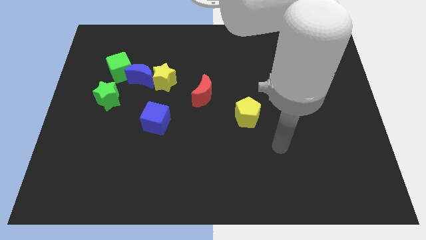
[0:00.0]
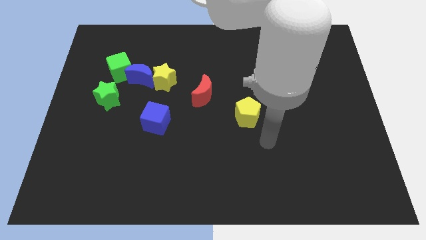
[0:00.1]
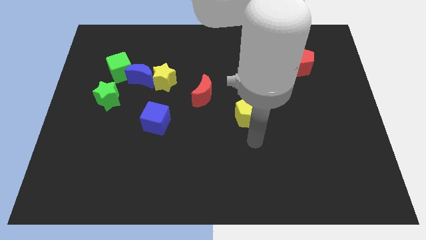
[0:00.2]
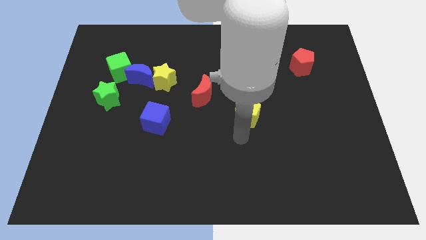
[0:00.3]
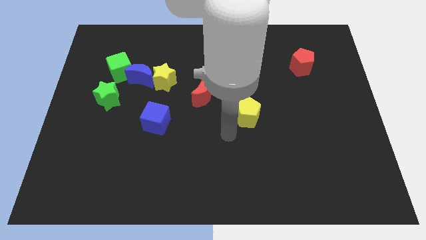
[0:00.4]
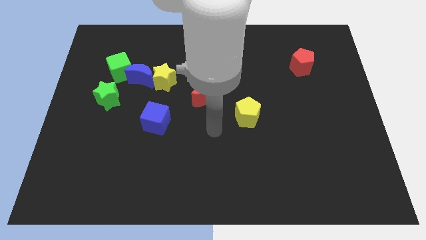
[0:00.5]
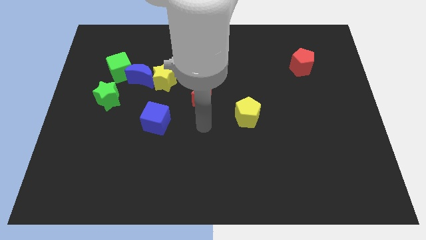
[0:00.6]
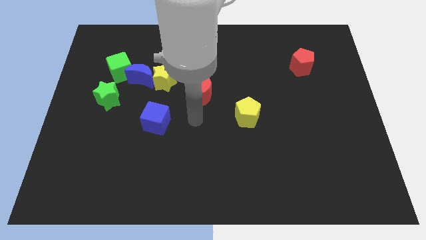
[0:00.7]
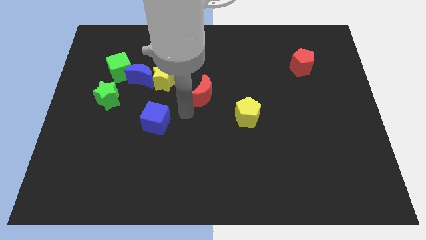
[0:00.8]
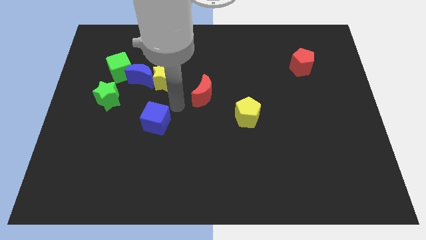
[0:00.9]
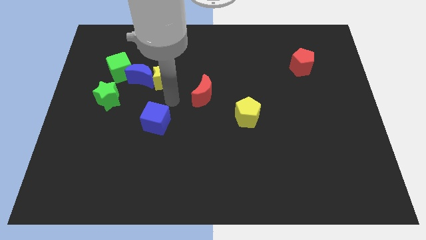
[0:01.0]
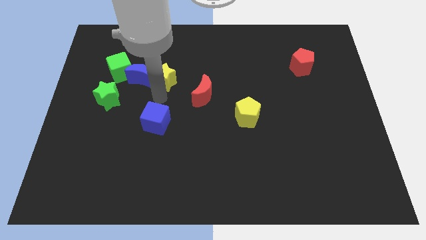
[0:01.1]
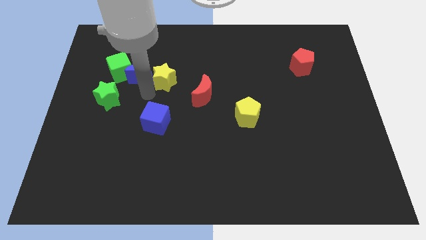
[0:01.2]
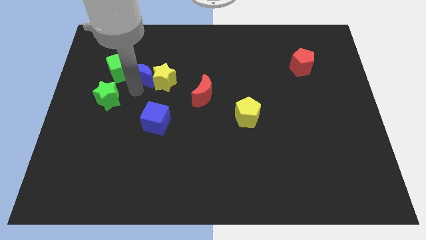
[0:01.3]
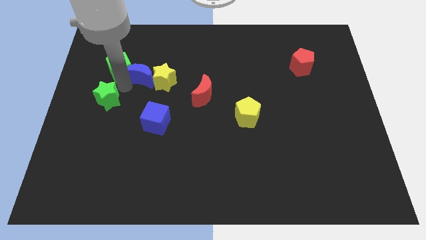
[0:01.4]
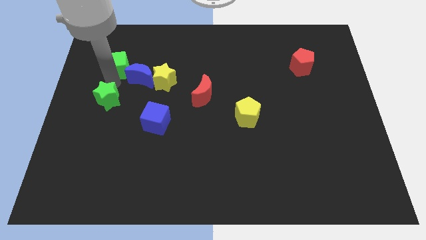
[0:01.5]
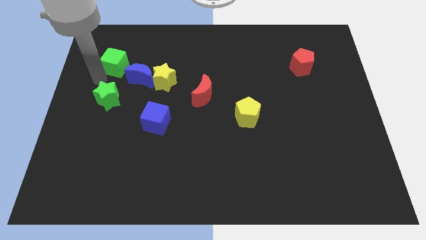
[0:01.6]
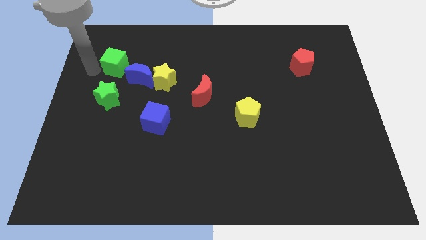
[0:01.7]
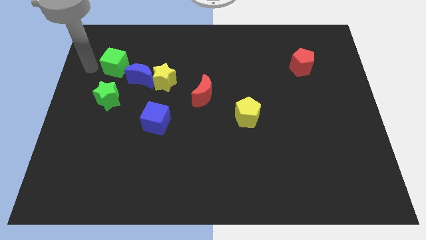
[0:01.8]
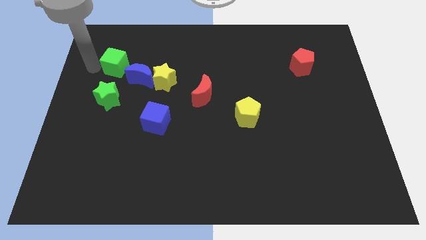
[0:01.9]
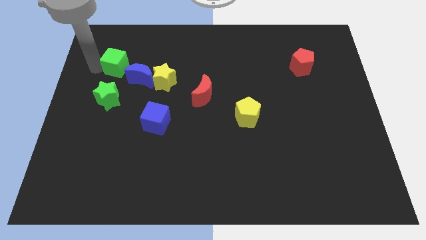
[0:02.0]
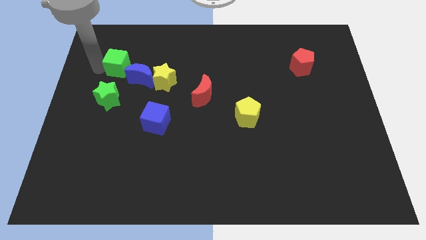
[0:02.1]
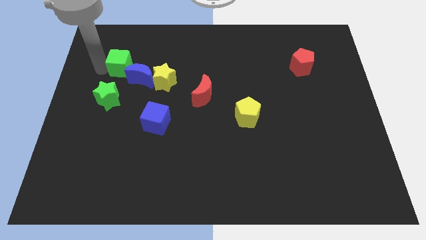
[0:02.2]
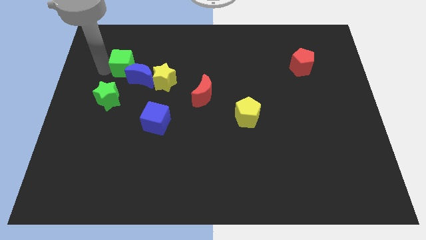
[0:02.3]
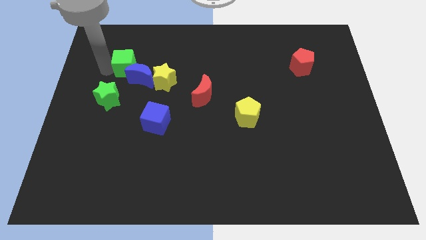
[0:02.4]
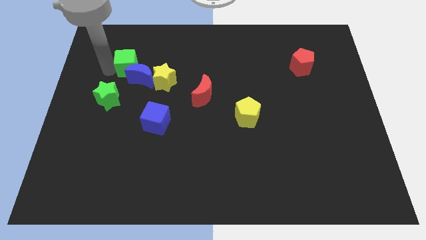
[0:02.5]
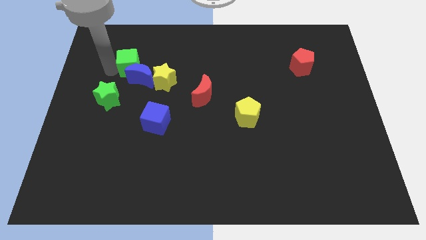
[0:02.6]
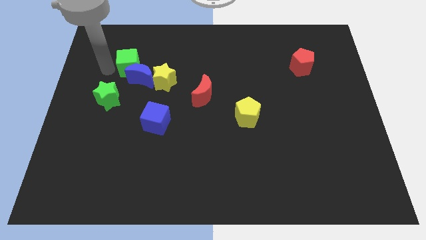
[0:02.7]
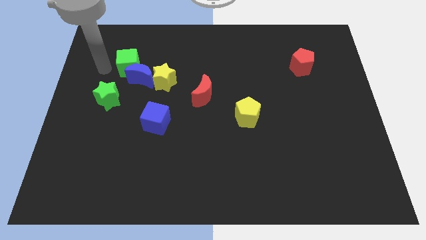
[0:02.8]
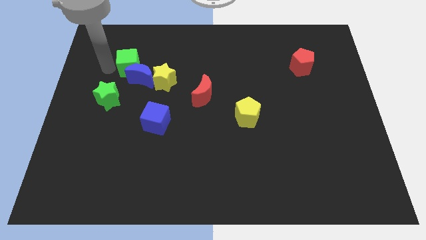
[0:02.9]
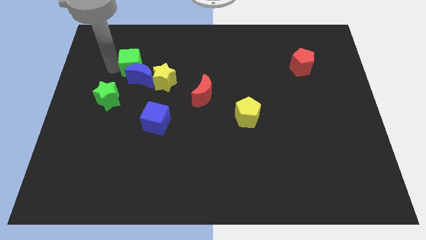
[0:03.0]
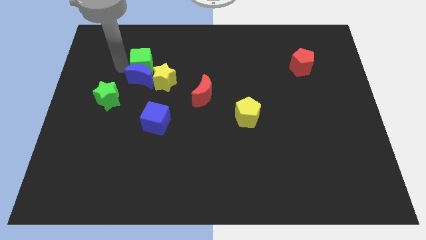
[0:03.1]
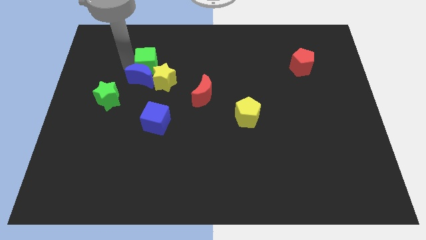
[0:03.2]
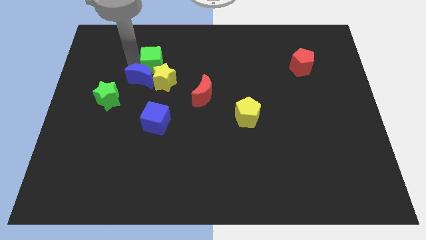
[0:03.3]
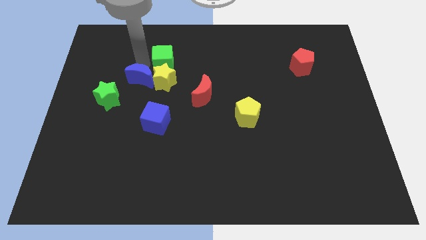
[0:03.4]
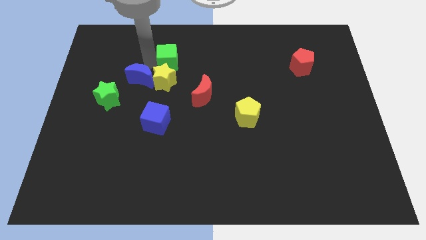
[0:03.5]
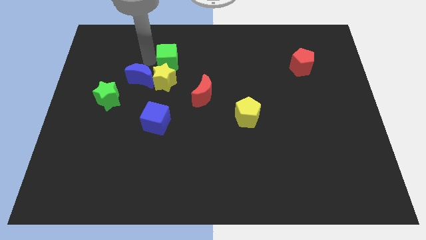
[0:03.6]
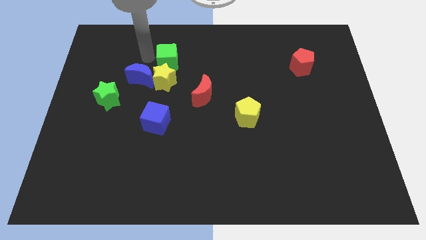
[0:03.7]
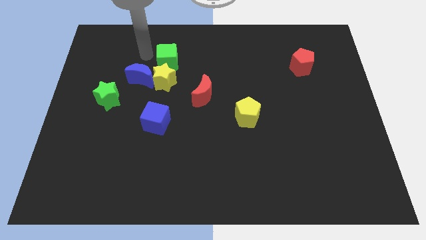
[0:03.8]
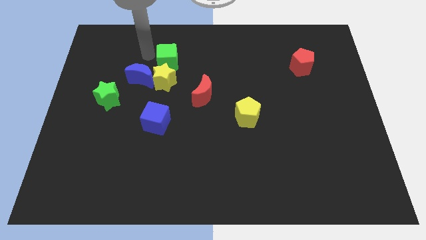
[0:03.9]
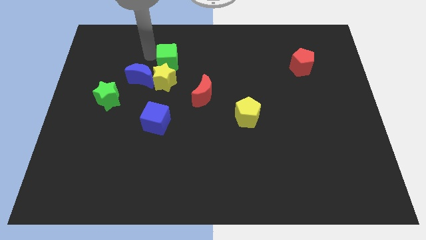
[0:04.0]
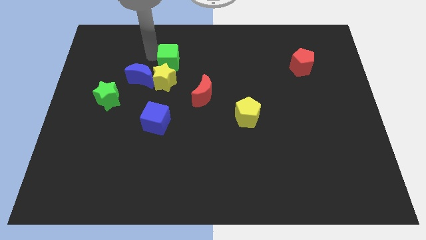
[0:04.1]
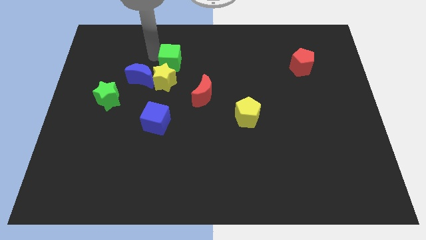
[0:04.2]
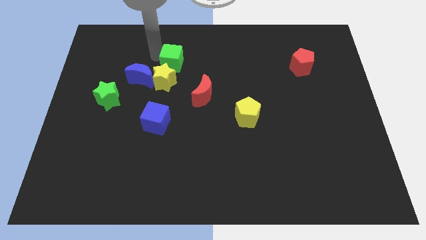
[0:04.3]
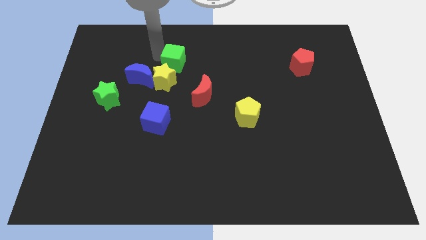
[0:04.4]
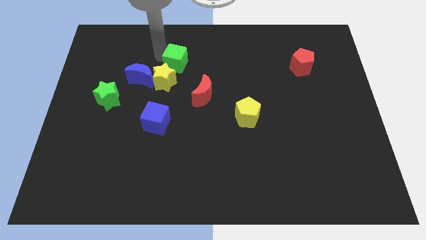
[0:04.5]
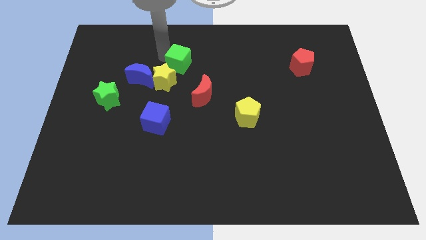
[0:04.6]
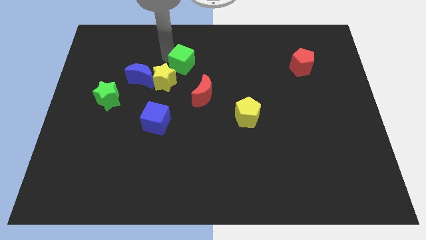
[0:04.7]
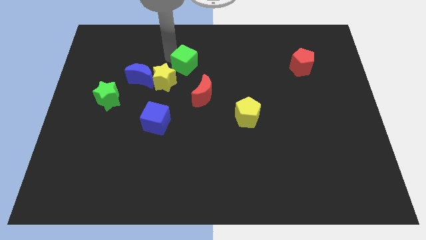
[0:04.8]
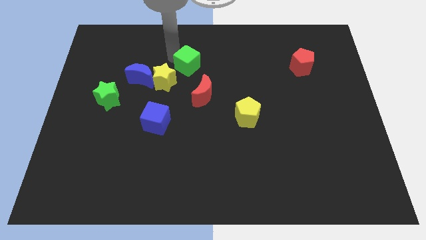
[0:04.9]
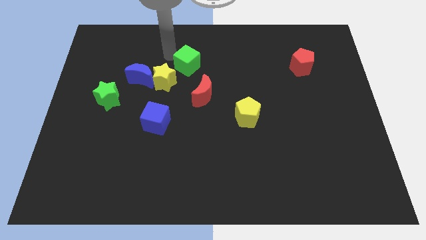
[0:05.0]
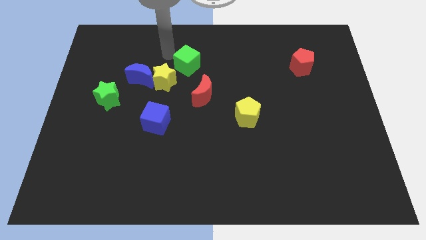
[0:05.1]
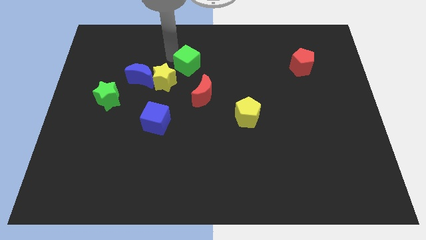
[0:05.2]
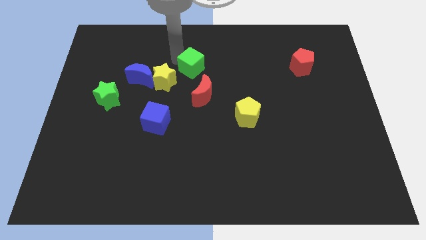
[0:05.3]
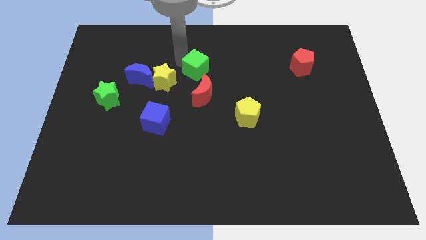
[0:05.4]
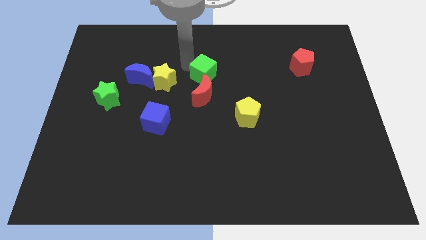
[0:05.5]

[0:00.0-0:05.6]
move the green cube right

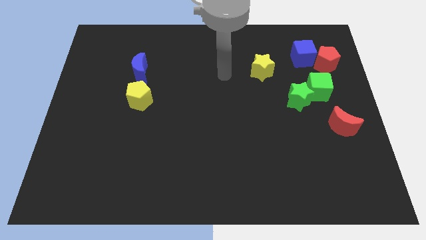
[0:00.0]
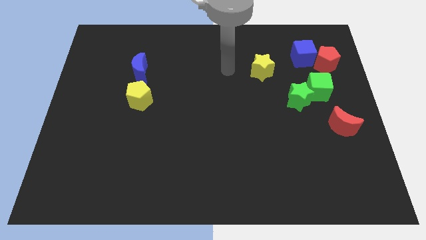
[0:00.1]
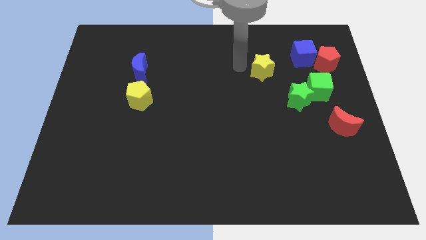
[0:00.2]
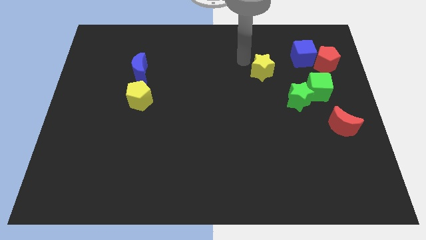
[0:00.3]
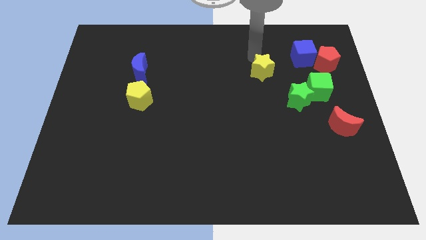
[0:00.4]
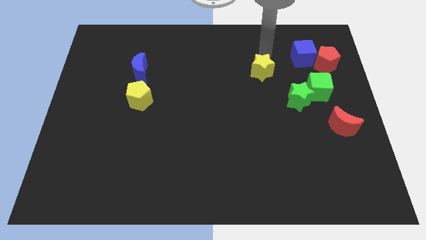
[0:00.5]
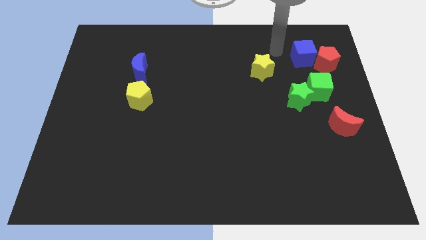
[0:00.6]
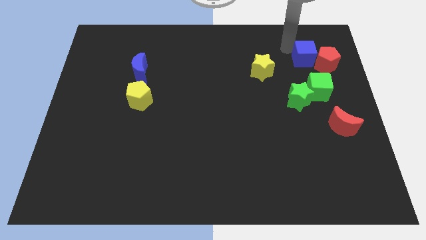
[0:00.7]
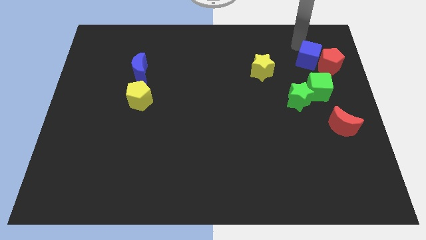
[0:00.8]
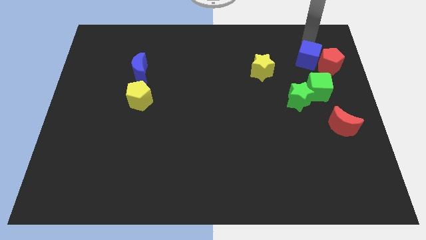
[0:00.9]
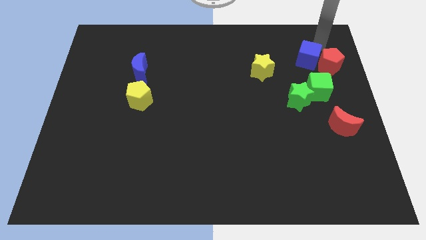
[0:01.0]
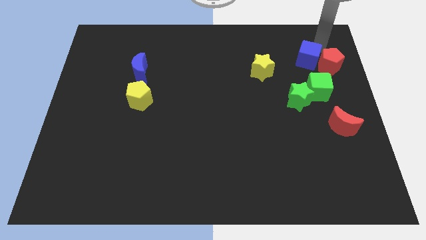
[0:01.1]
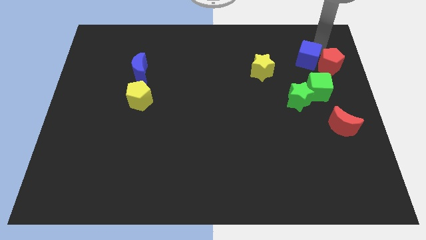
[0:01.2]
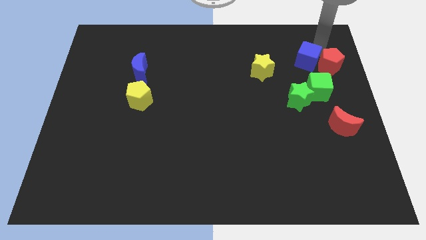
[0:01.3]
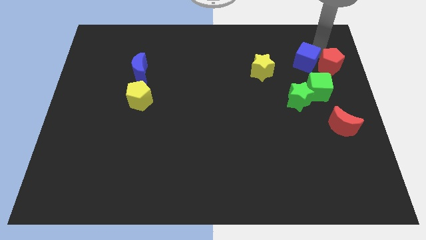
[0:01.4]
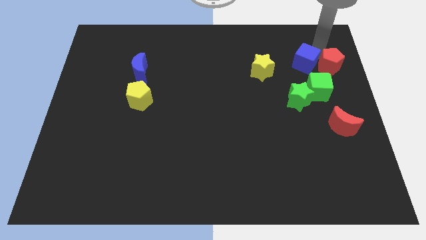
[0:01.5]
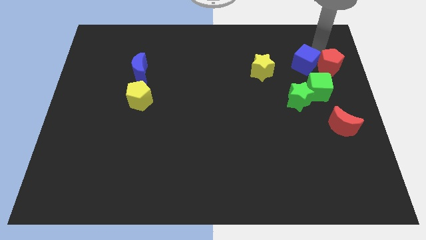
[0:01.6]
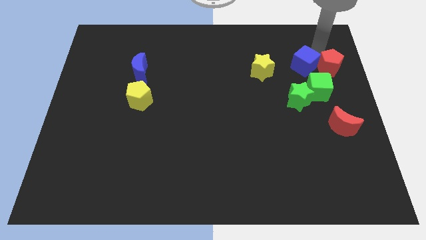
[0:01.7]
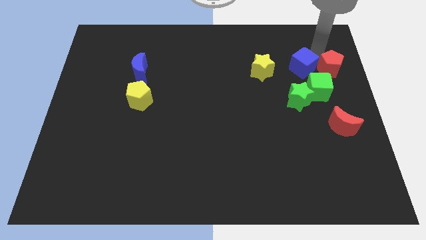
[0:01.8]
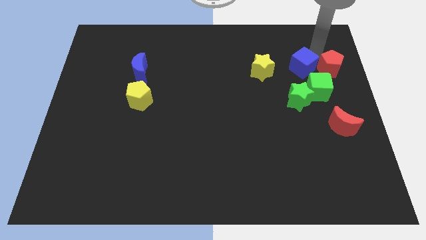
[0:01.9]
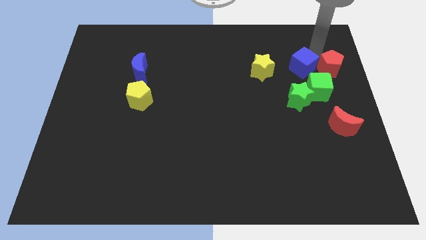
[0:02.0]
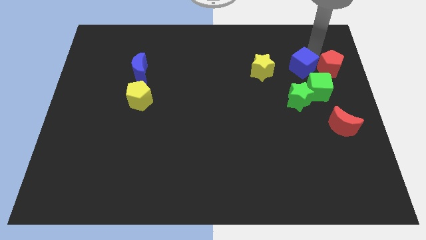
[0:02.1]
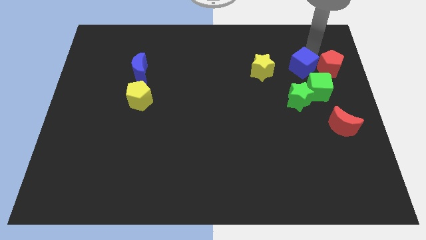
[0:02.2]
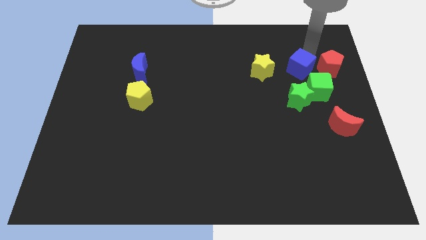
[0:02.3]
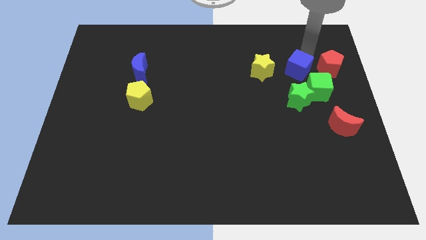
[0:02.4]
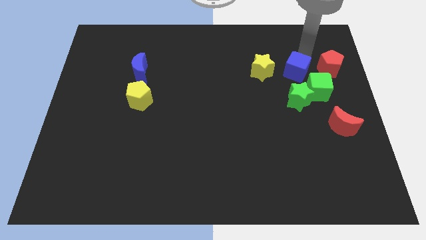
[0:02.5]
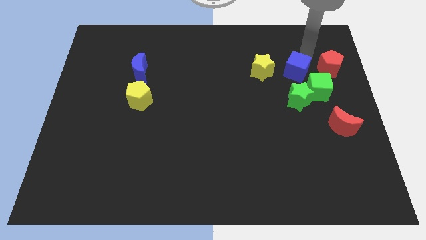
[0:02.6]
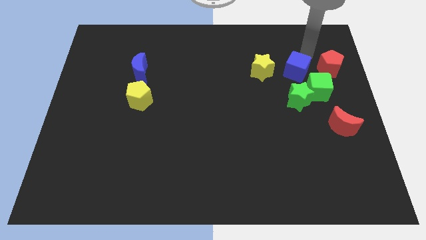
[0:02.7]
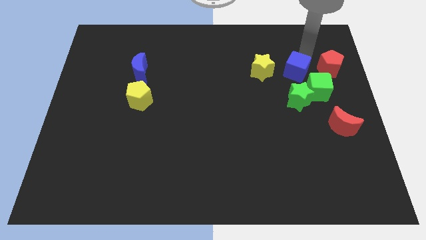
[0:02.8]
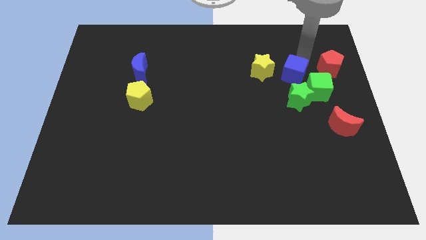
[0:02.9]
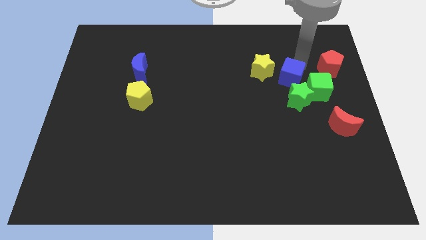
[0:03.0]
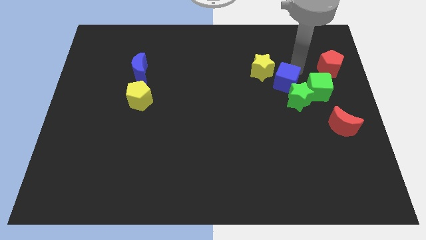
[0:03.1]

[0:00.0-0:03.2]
slightly move the blue cube down
